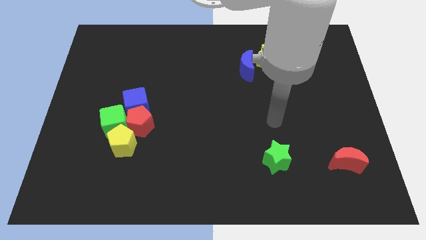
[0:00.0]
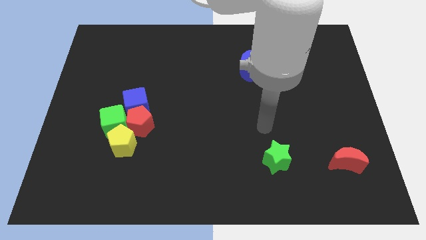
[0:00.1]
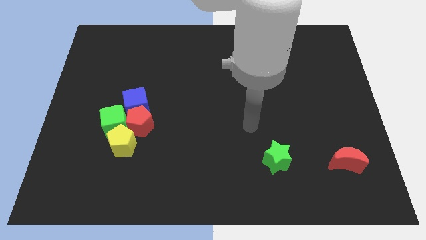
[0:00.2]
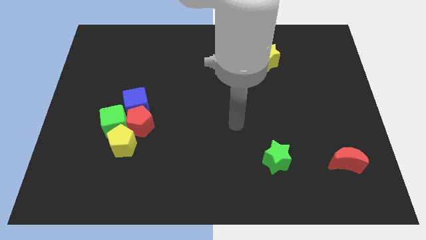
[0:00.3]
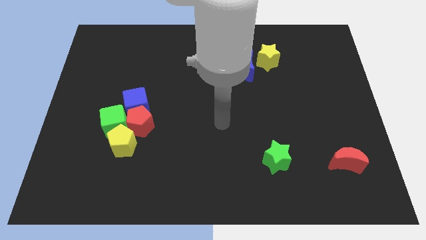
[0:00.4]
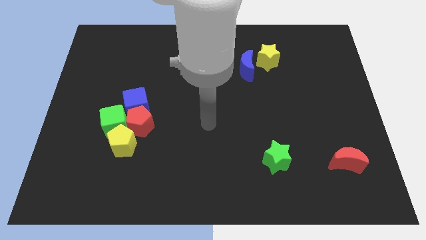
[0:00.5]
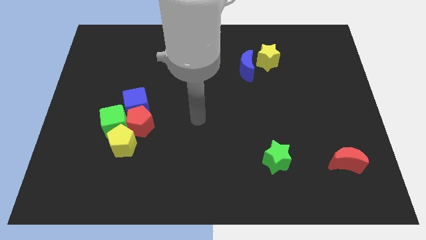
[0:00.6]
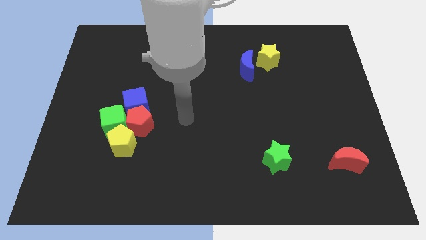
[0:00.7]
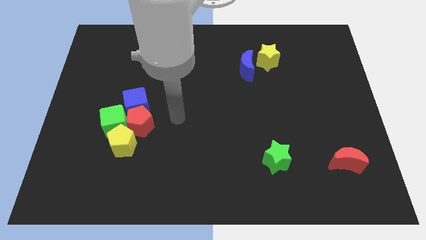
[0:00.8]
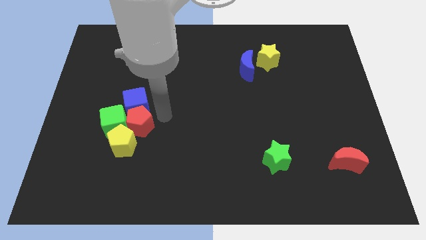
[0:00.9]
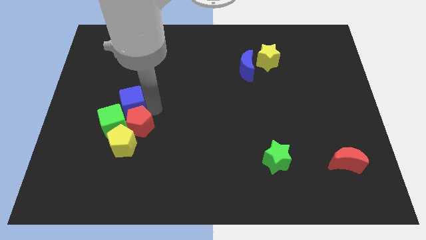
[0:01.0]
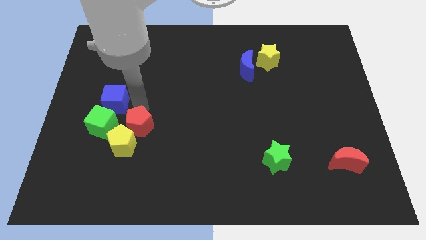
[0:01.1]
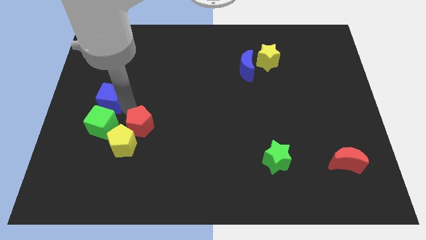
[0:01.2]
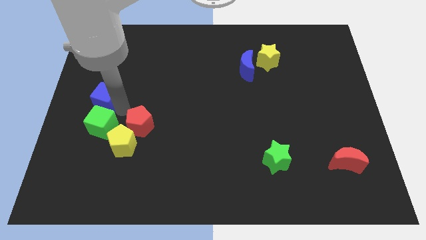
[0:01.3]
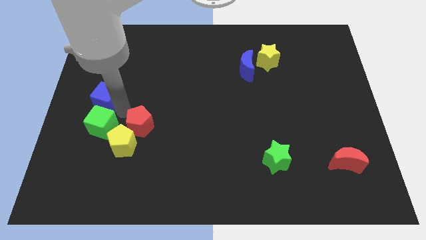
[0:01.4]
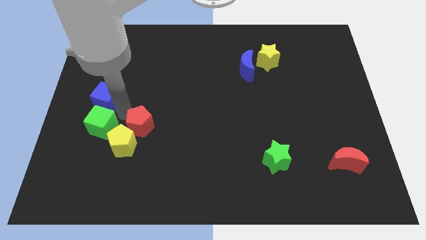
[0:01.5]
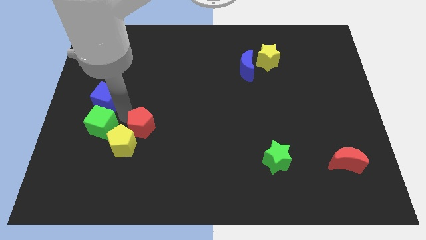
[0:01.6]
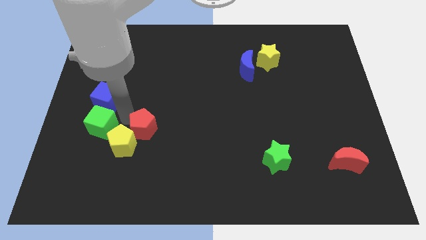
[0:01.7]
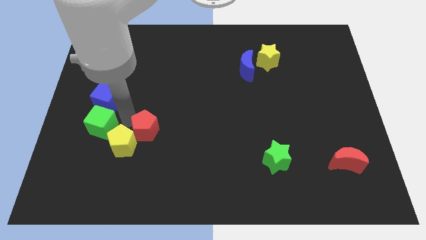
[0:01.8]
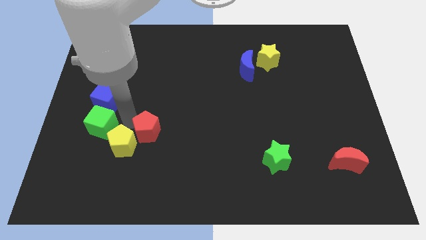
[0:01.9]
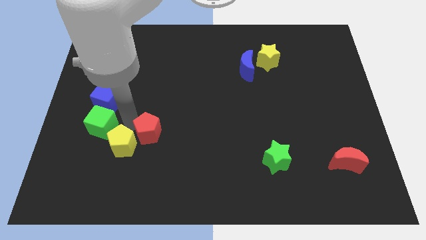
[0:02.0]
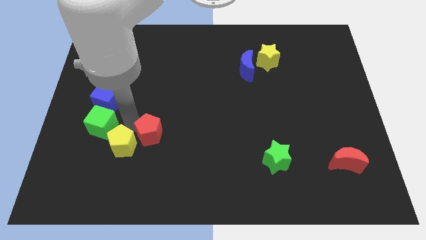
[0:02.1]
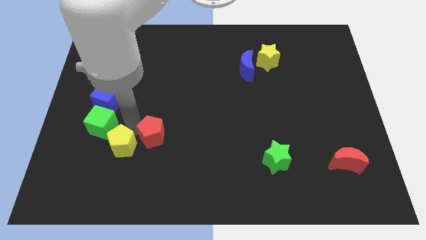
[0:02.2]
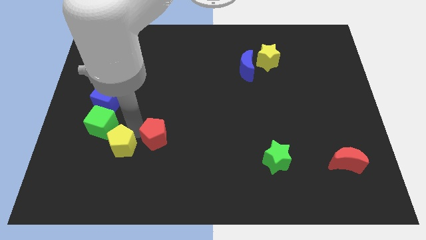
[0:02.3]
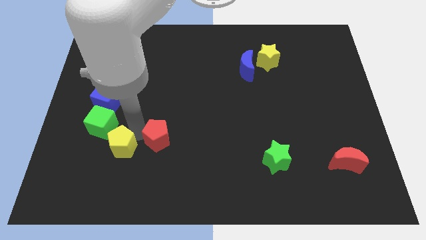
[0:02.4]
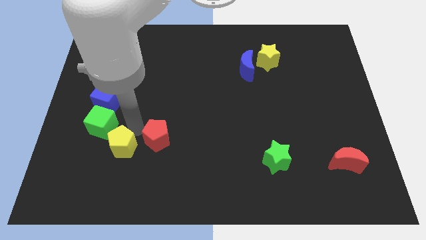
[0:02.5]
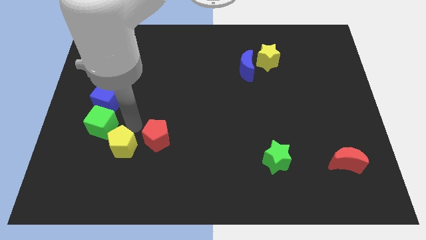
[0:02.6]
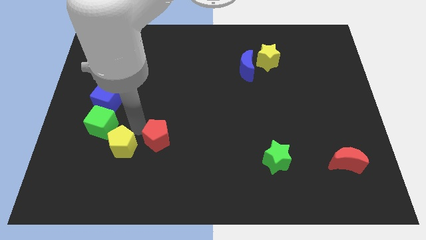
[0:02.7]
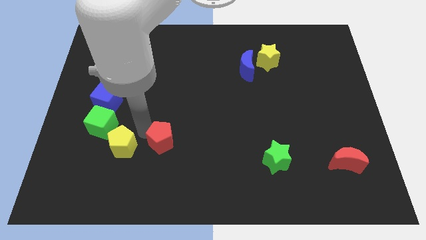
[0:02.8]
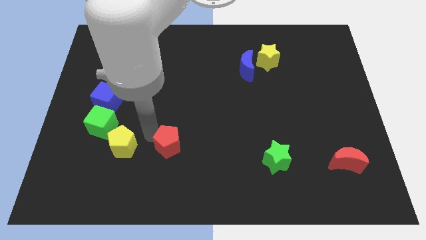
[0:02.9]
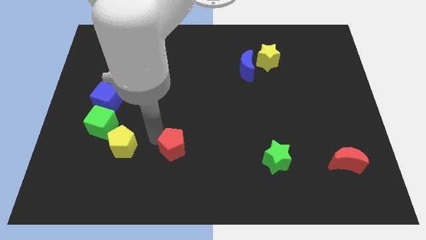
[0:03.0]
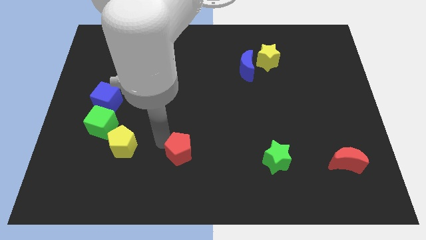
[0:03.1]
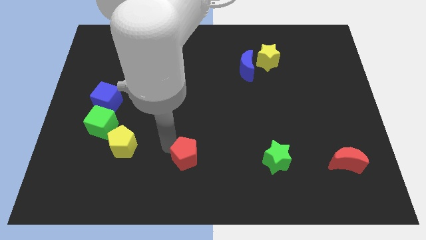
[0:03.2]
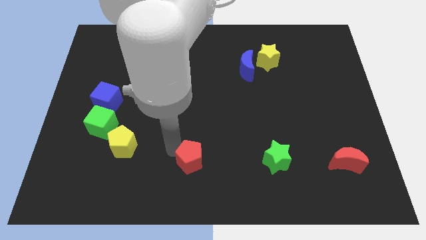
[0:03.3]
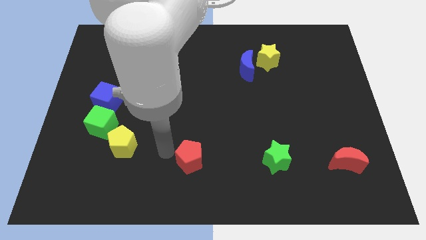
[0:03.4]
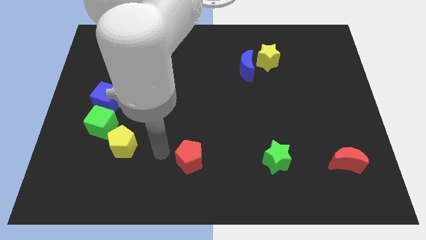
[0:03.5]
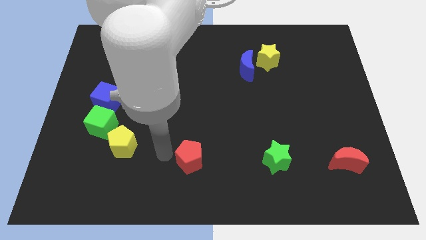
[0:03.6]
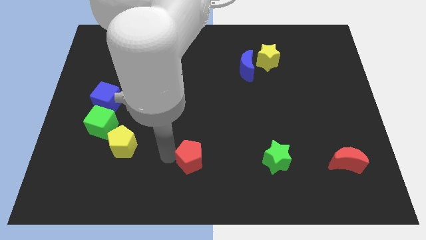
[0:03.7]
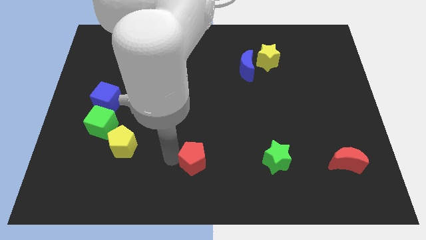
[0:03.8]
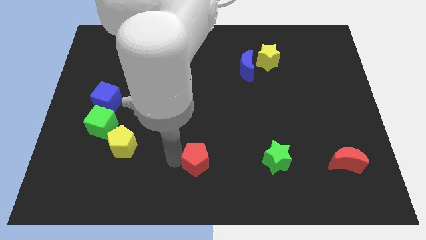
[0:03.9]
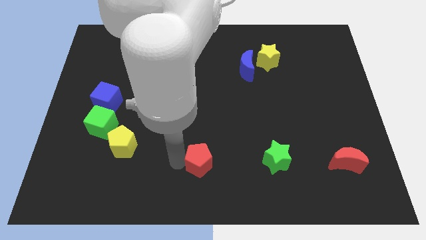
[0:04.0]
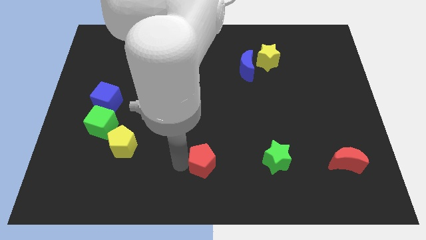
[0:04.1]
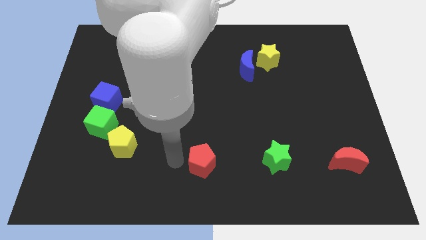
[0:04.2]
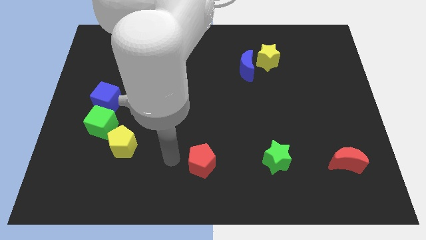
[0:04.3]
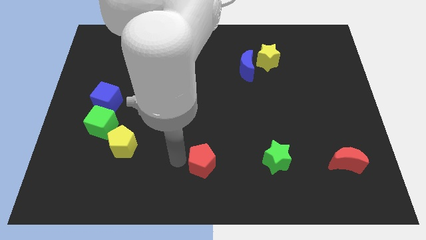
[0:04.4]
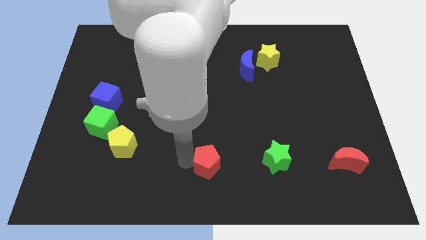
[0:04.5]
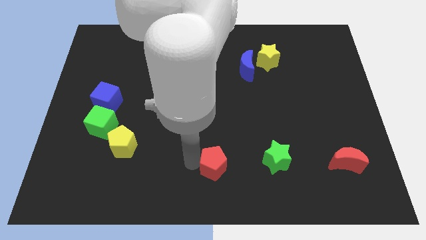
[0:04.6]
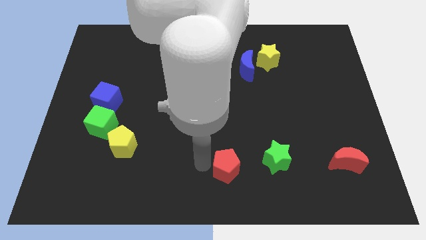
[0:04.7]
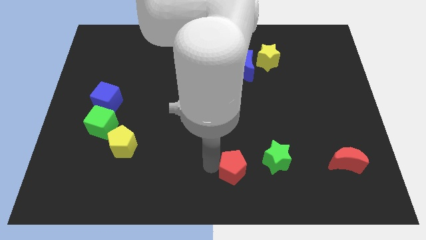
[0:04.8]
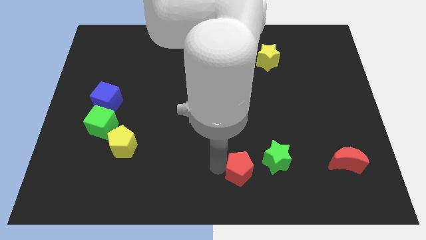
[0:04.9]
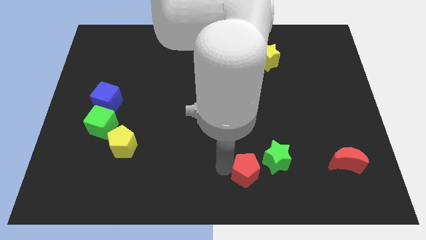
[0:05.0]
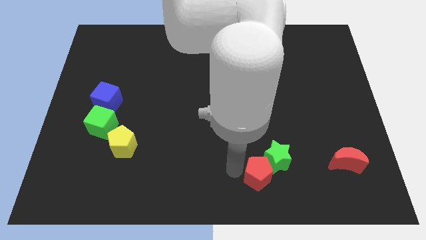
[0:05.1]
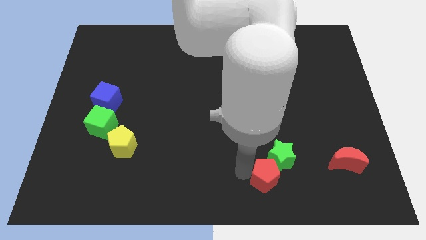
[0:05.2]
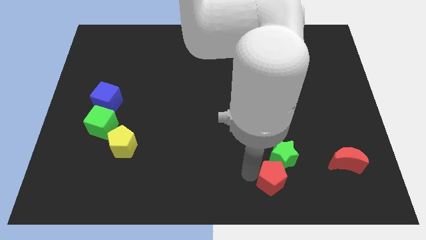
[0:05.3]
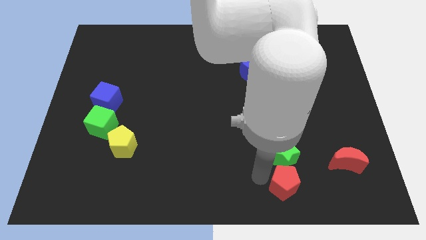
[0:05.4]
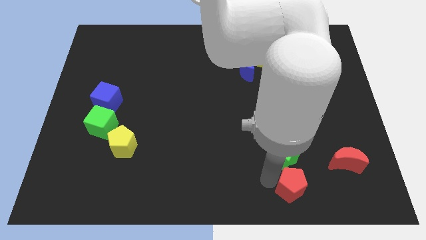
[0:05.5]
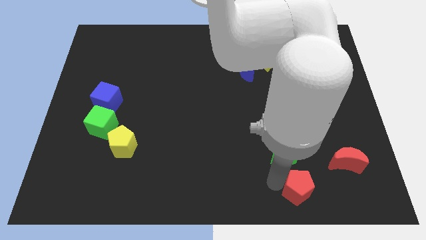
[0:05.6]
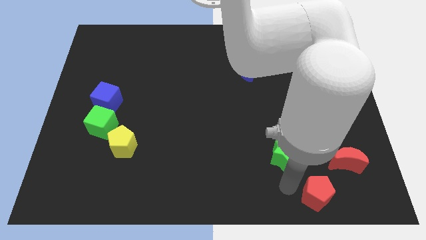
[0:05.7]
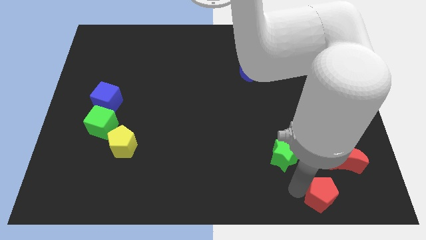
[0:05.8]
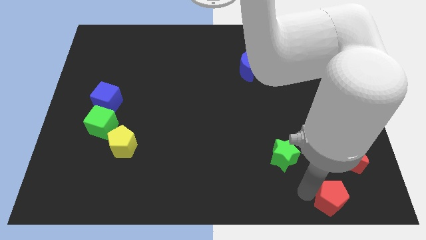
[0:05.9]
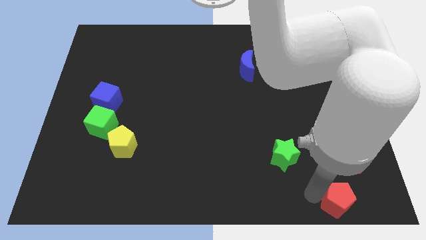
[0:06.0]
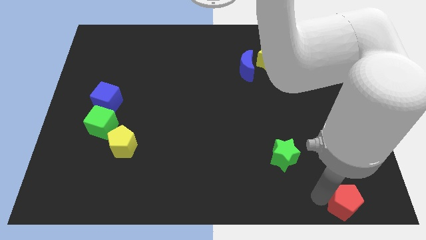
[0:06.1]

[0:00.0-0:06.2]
slide the red pentagon to the bottom right of the board

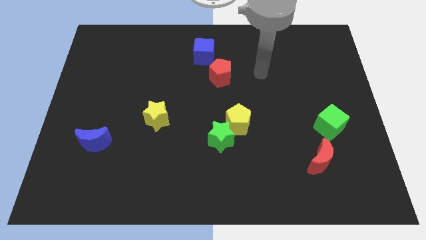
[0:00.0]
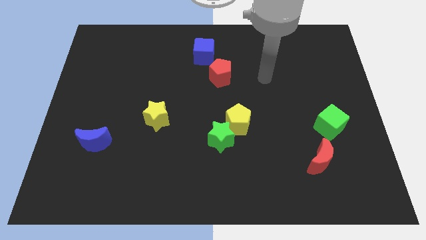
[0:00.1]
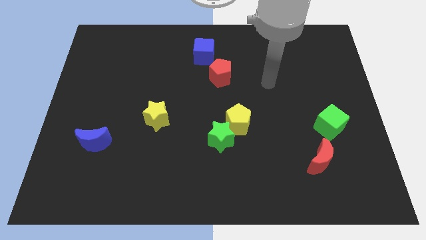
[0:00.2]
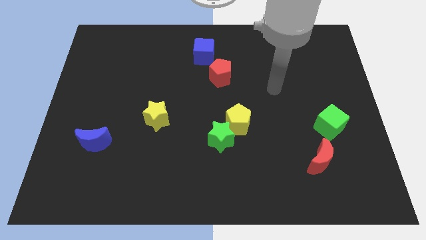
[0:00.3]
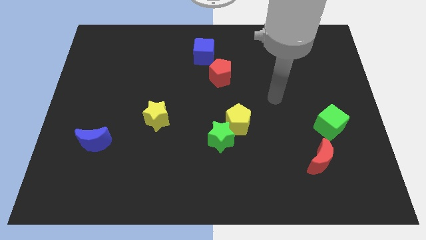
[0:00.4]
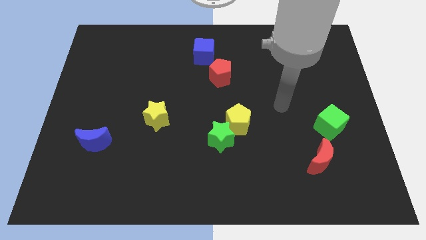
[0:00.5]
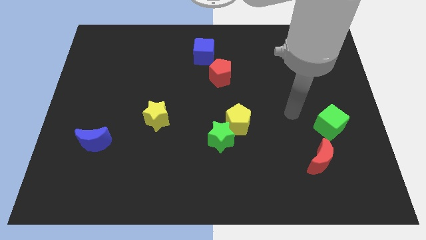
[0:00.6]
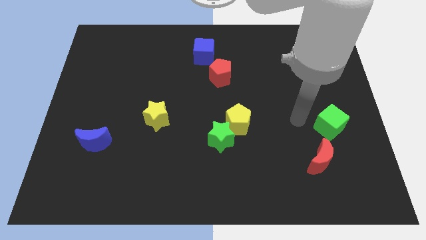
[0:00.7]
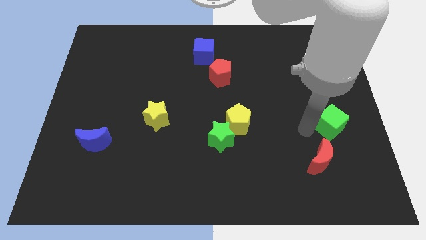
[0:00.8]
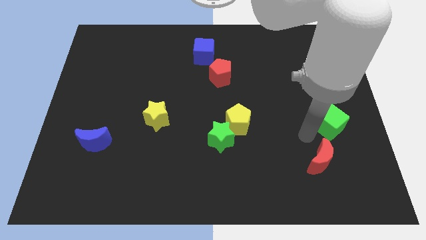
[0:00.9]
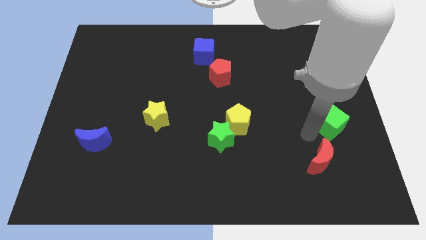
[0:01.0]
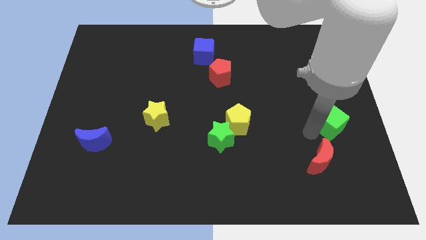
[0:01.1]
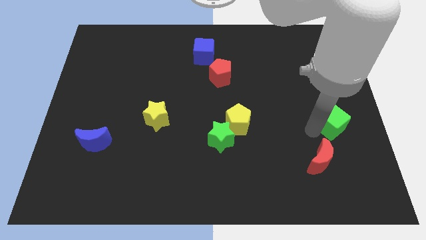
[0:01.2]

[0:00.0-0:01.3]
push the green cube to the right side of the board
